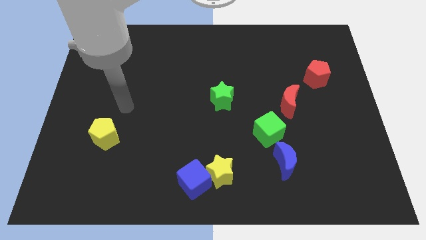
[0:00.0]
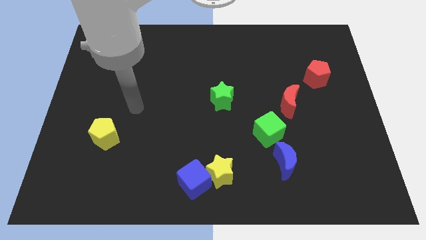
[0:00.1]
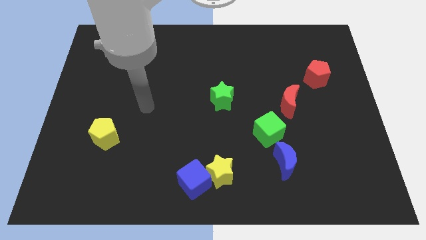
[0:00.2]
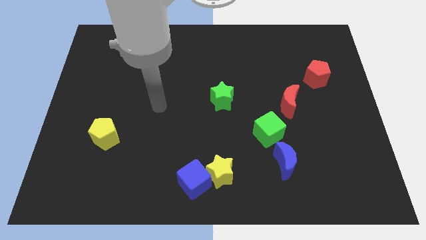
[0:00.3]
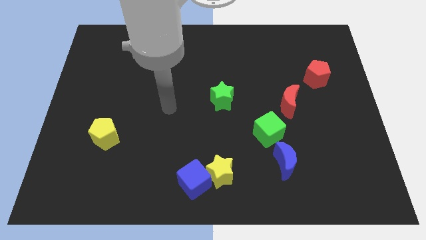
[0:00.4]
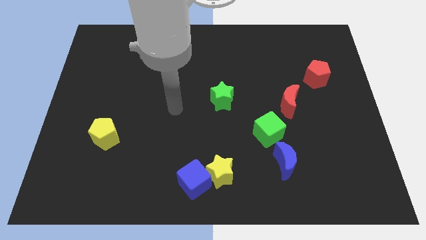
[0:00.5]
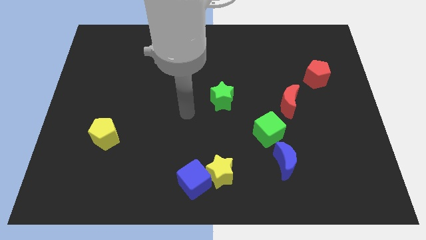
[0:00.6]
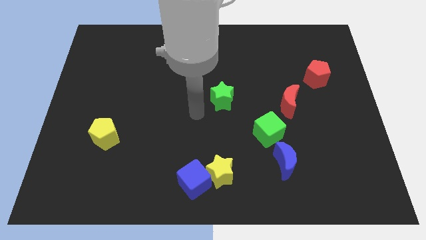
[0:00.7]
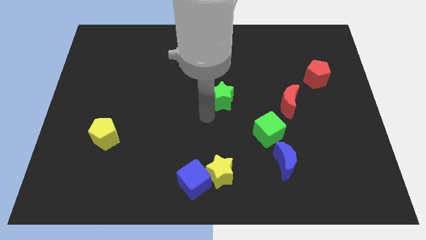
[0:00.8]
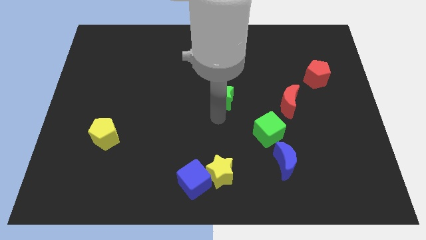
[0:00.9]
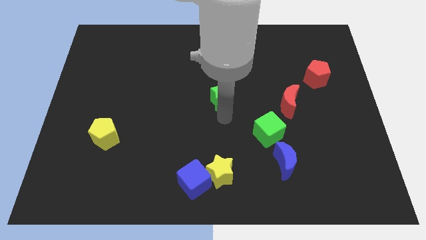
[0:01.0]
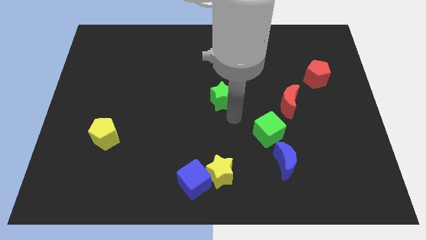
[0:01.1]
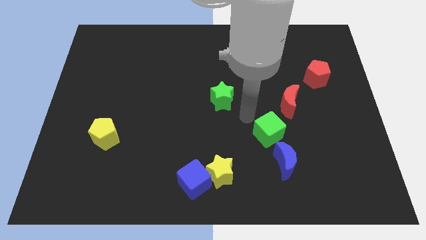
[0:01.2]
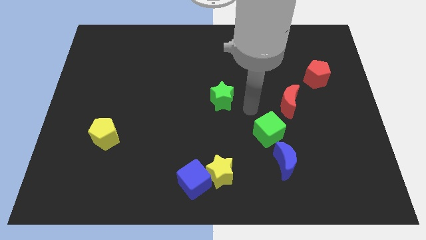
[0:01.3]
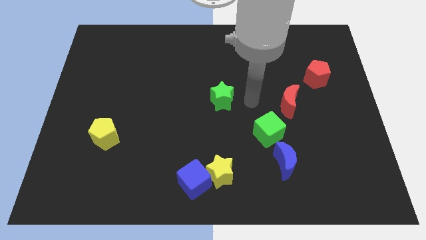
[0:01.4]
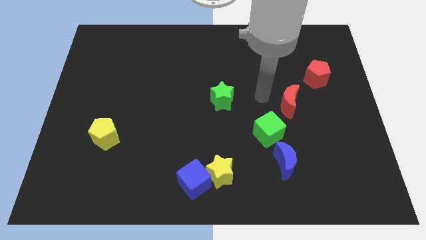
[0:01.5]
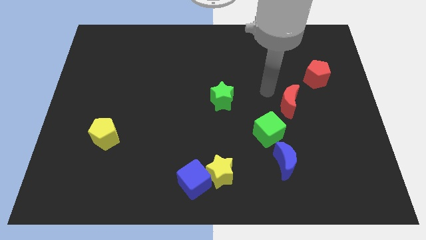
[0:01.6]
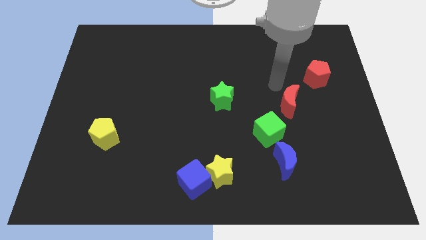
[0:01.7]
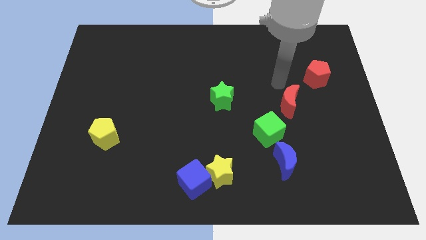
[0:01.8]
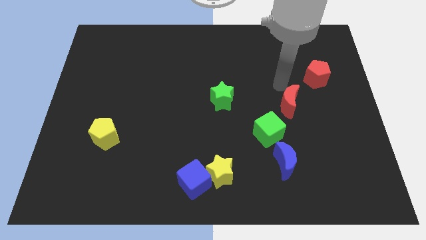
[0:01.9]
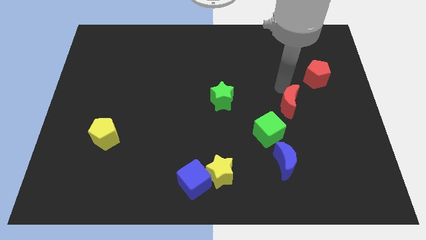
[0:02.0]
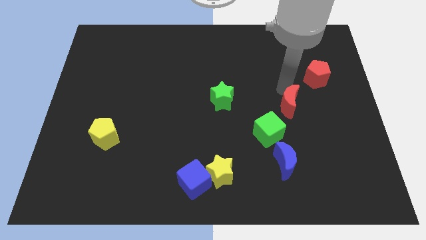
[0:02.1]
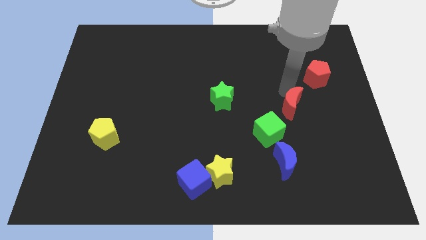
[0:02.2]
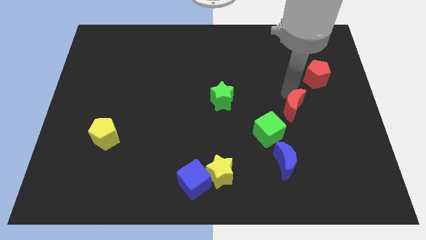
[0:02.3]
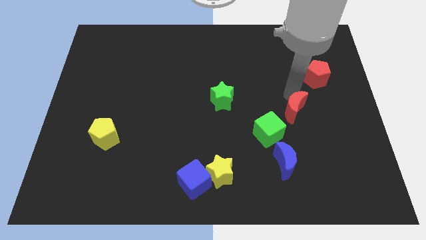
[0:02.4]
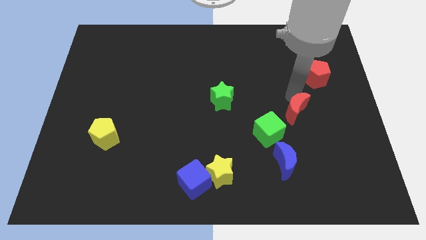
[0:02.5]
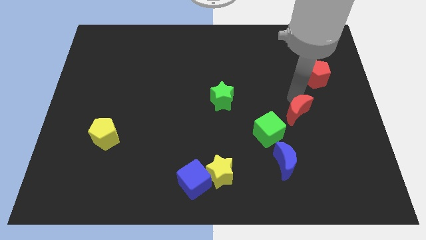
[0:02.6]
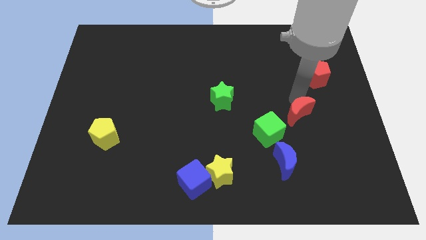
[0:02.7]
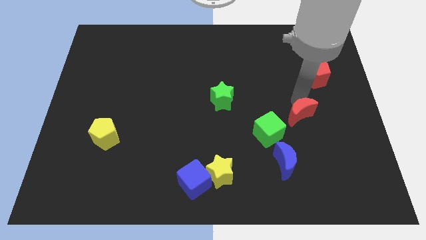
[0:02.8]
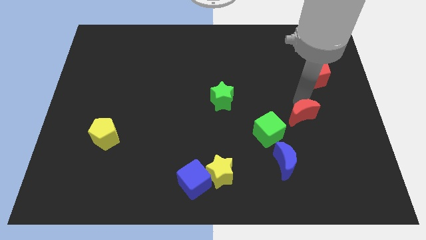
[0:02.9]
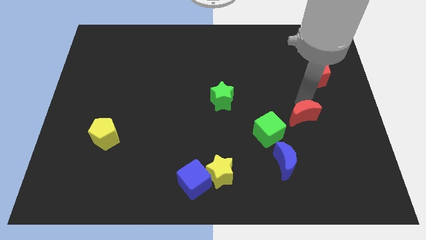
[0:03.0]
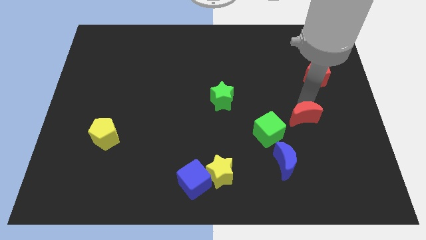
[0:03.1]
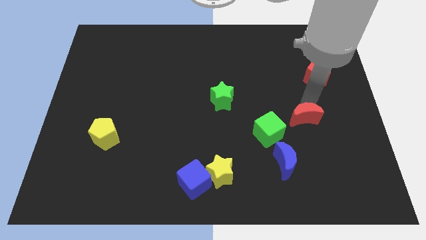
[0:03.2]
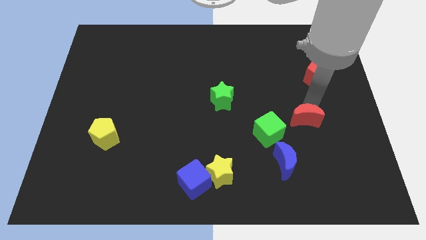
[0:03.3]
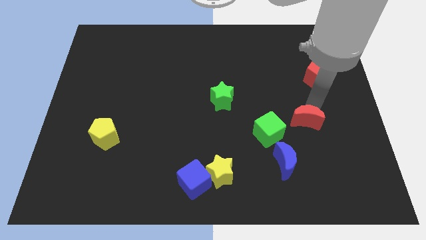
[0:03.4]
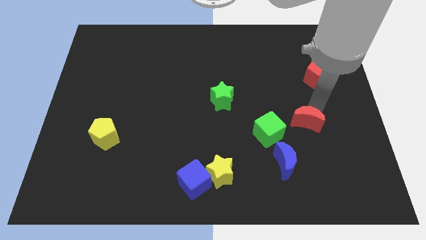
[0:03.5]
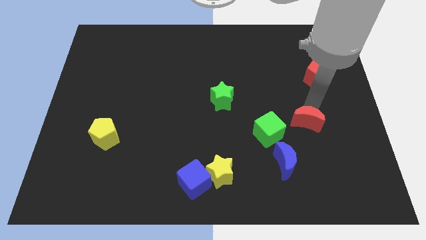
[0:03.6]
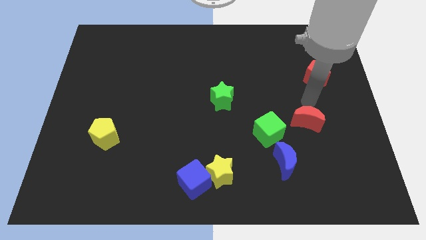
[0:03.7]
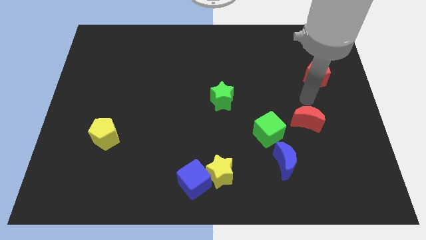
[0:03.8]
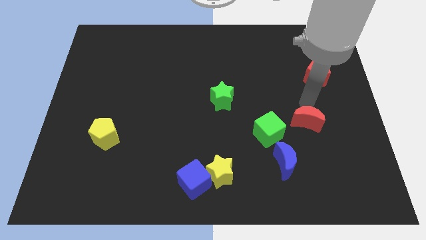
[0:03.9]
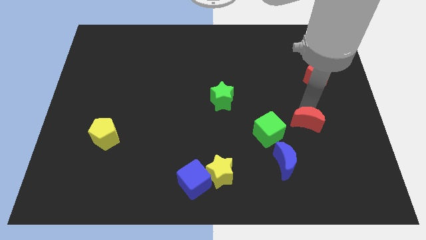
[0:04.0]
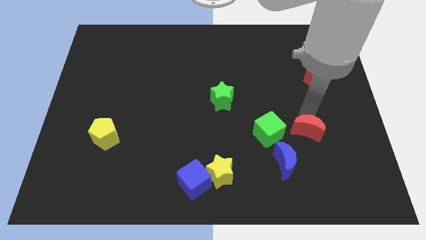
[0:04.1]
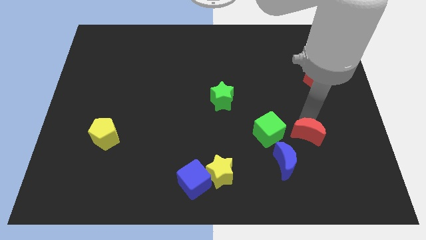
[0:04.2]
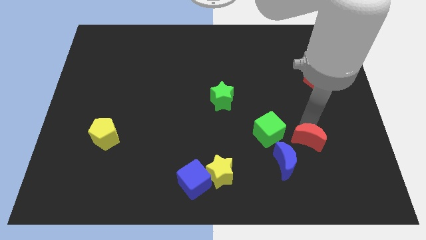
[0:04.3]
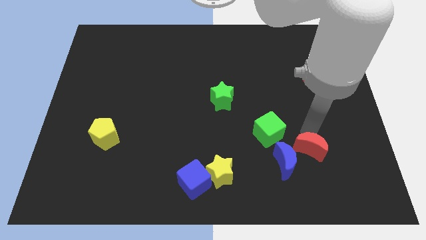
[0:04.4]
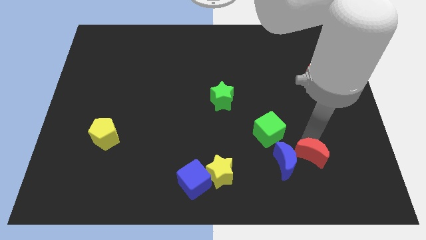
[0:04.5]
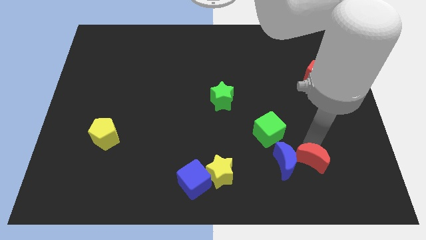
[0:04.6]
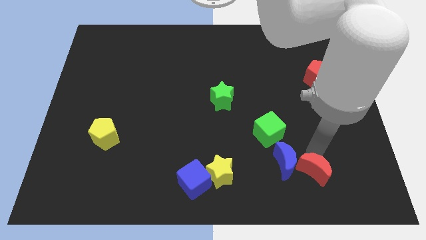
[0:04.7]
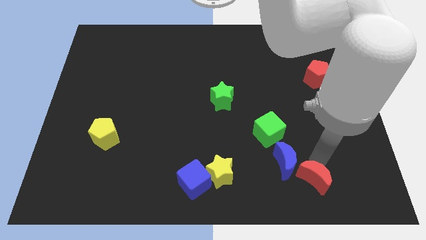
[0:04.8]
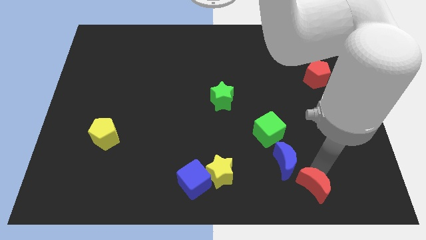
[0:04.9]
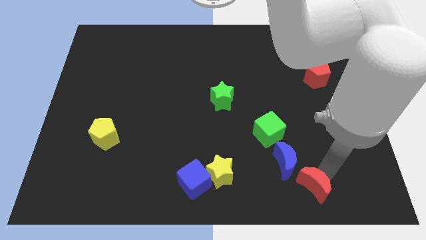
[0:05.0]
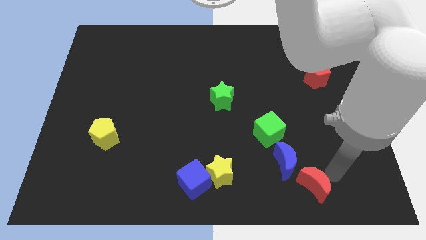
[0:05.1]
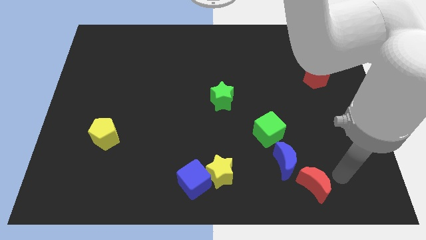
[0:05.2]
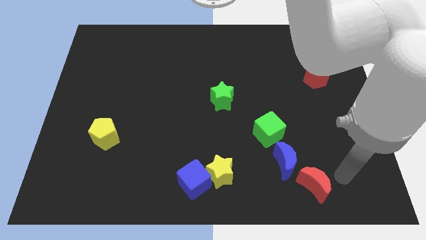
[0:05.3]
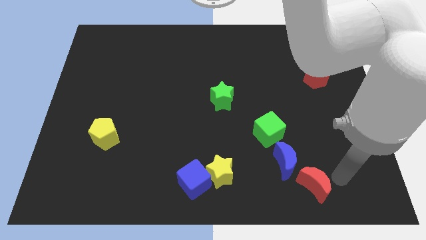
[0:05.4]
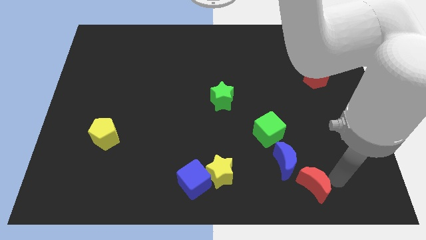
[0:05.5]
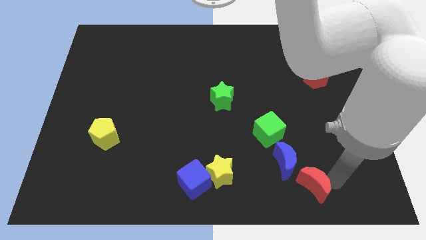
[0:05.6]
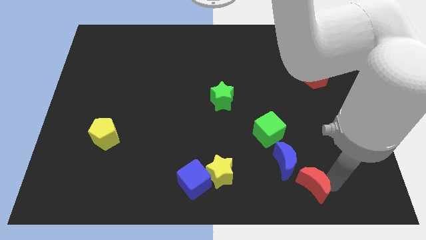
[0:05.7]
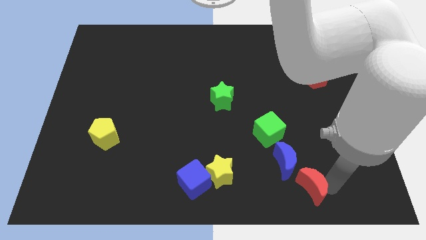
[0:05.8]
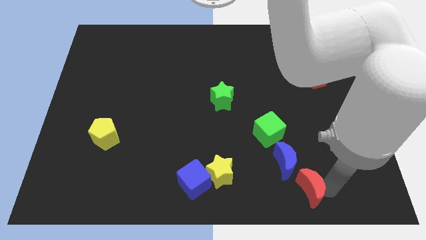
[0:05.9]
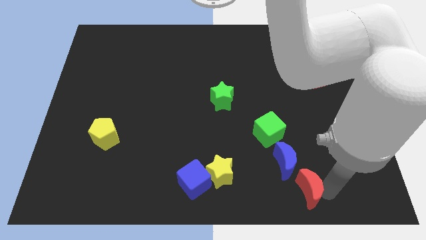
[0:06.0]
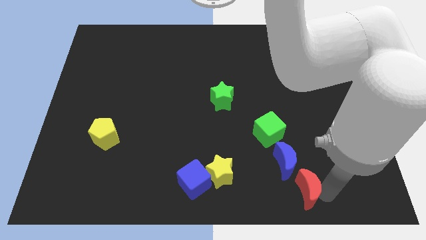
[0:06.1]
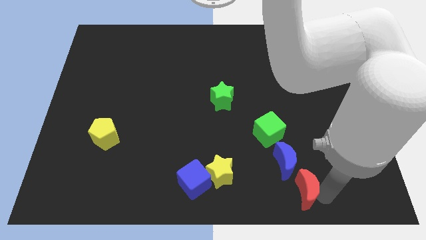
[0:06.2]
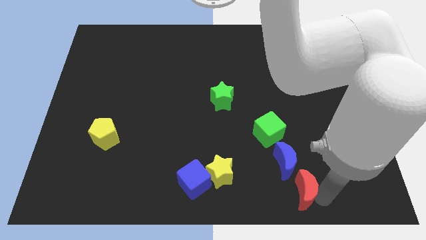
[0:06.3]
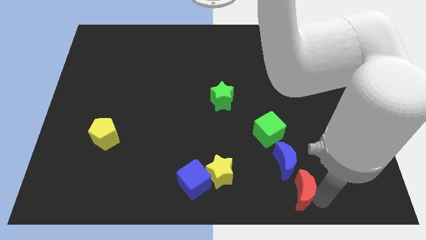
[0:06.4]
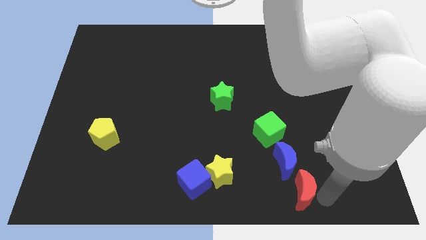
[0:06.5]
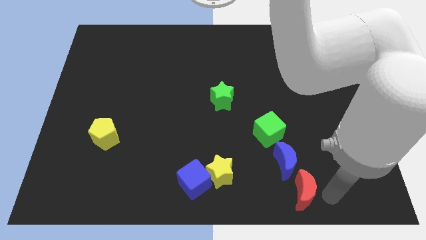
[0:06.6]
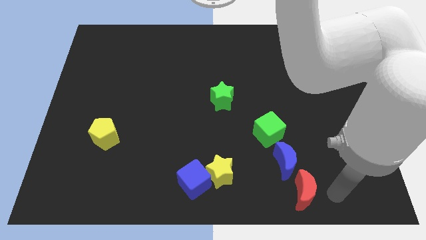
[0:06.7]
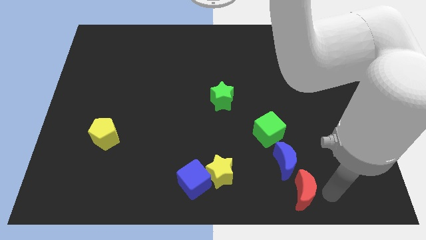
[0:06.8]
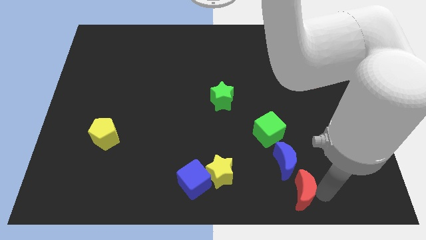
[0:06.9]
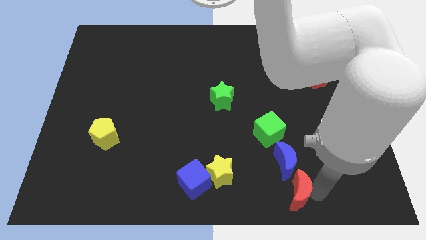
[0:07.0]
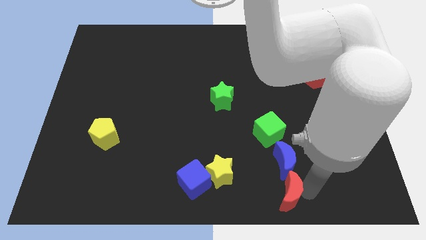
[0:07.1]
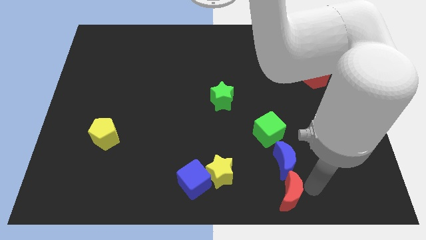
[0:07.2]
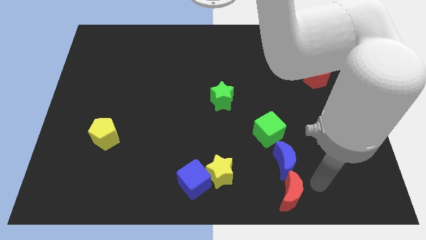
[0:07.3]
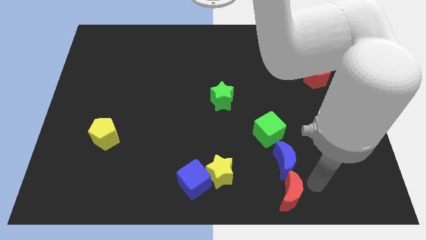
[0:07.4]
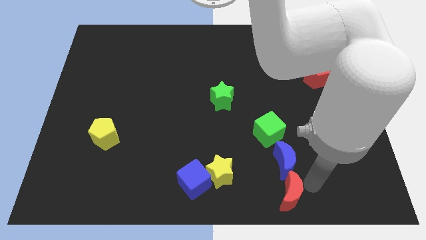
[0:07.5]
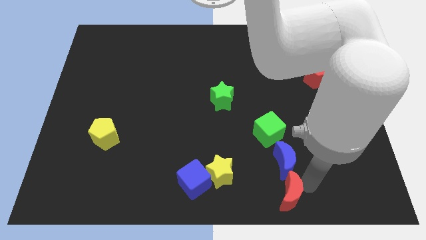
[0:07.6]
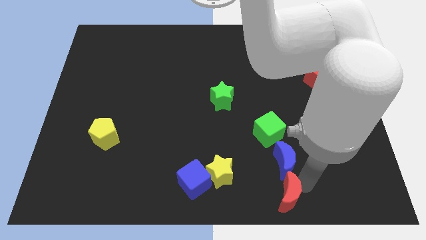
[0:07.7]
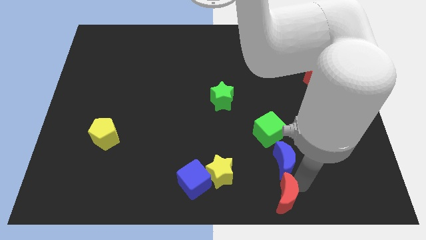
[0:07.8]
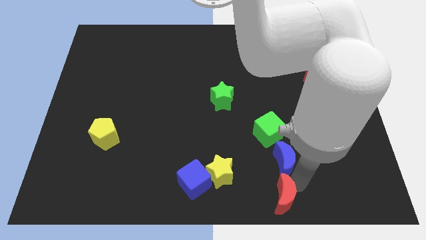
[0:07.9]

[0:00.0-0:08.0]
push the red moon to the bottom side
